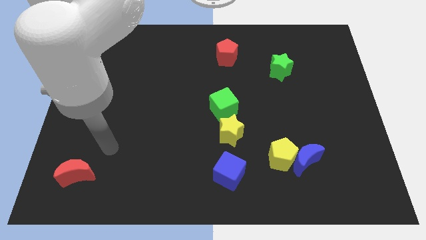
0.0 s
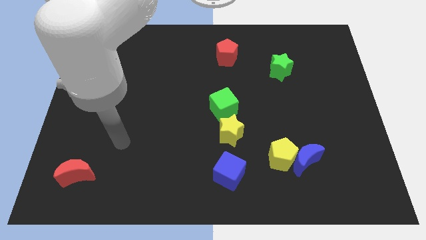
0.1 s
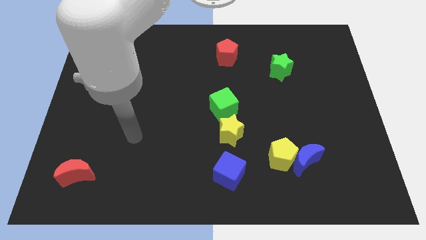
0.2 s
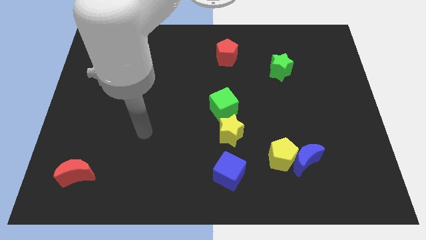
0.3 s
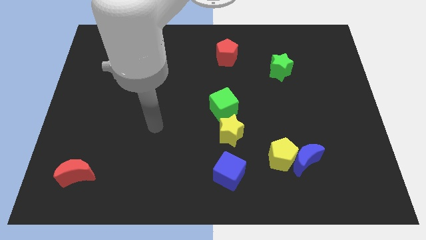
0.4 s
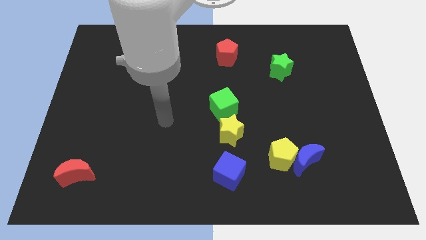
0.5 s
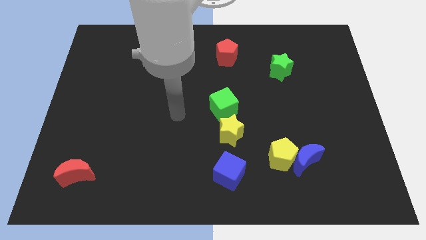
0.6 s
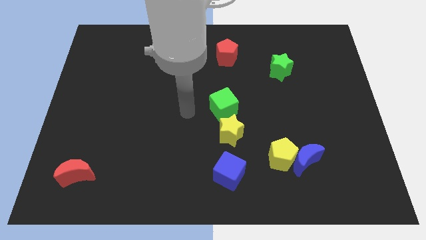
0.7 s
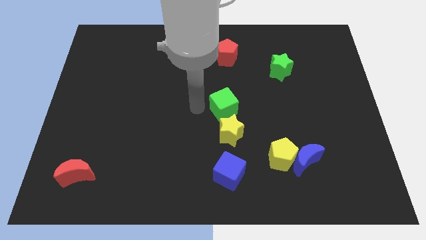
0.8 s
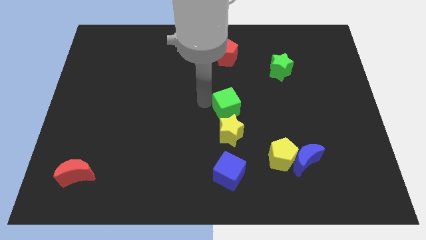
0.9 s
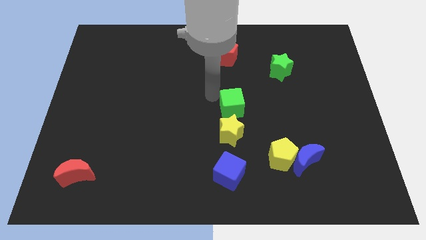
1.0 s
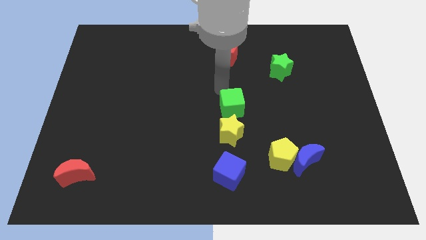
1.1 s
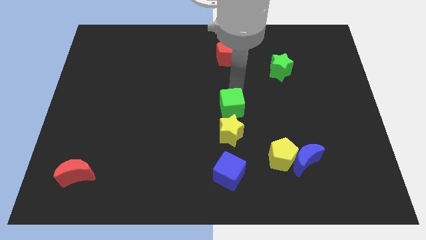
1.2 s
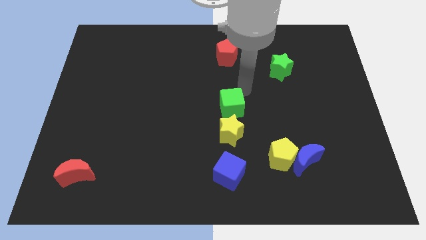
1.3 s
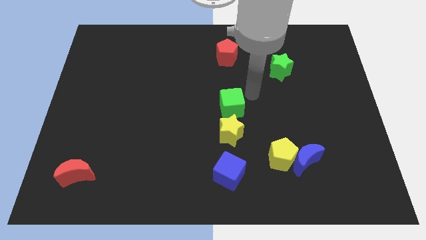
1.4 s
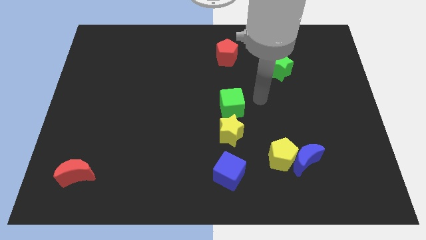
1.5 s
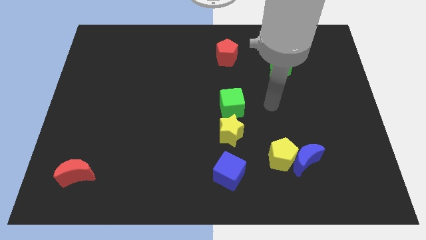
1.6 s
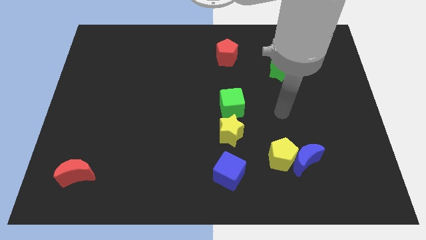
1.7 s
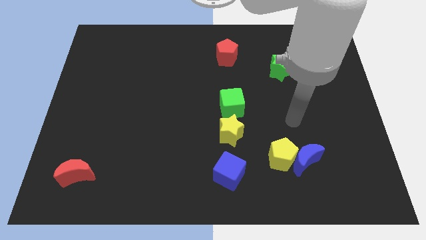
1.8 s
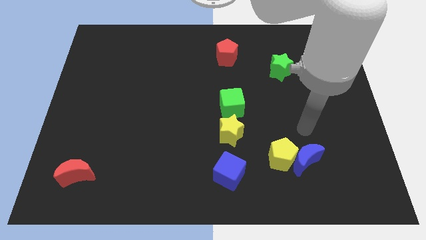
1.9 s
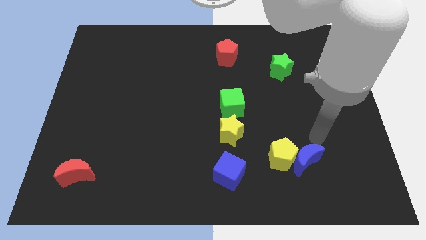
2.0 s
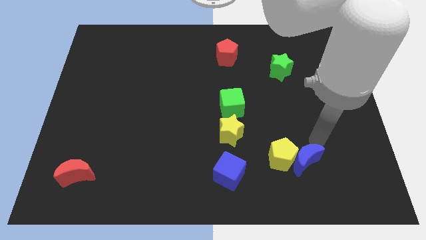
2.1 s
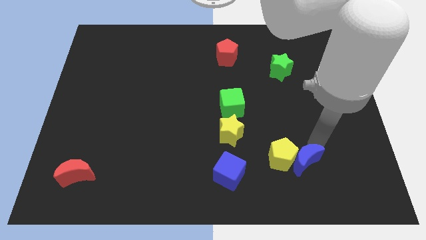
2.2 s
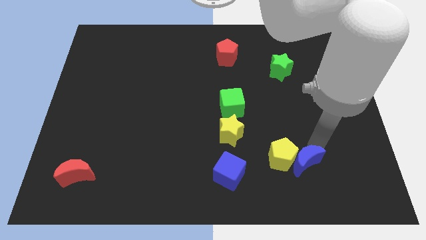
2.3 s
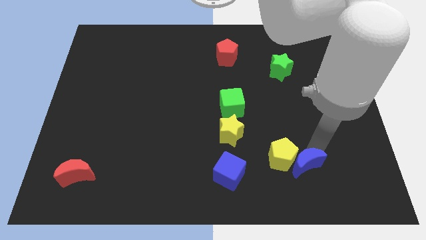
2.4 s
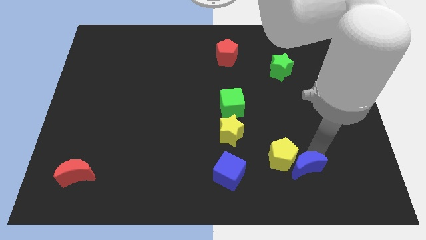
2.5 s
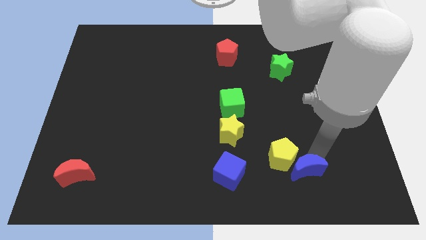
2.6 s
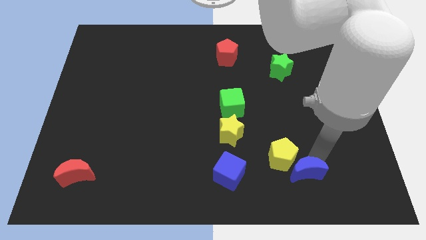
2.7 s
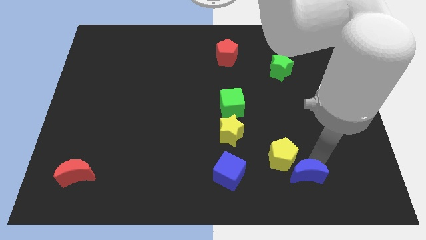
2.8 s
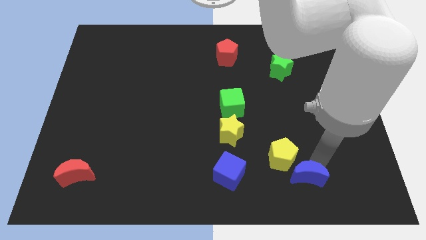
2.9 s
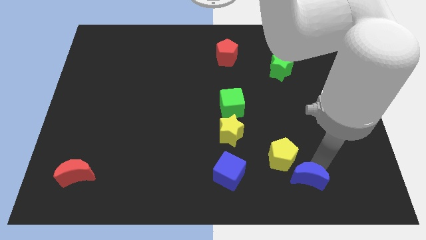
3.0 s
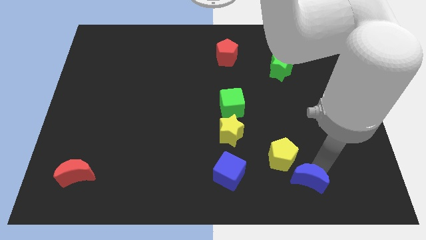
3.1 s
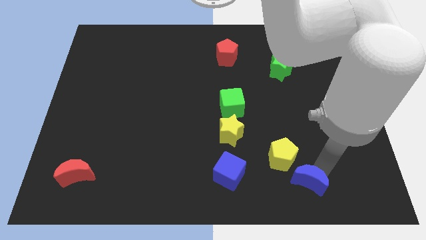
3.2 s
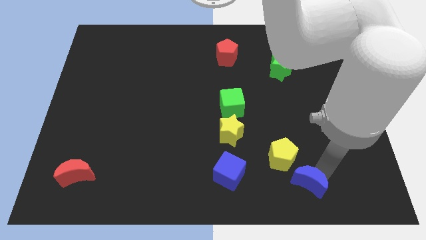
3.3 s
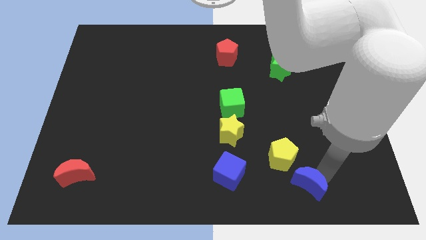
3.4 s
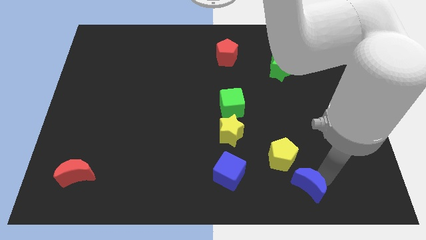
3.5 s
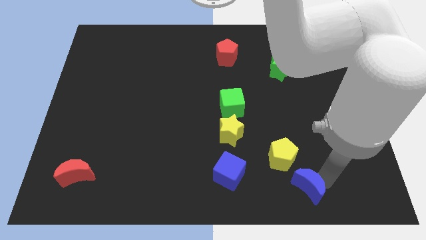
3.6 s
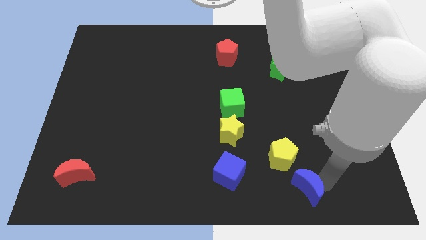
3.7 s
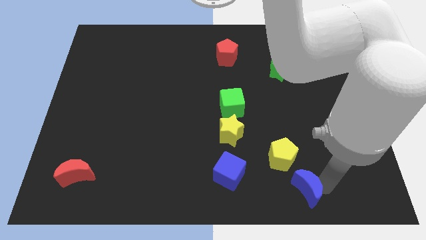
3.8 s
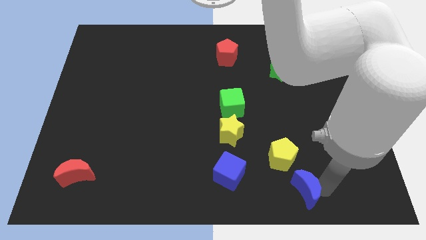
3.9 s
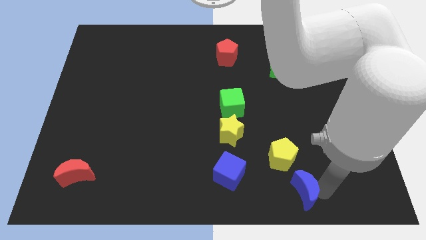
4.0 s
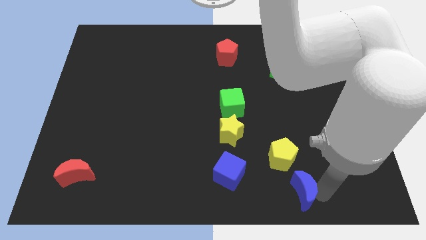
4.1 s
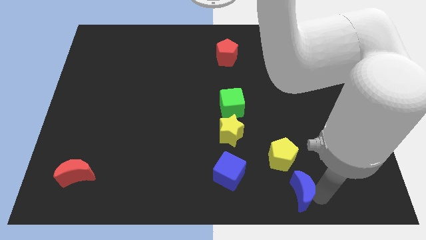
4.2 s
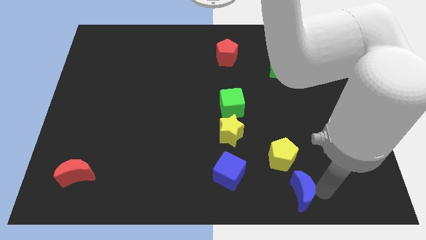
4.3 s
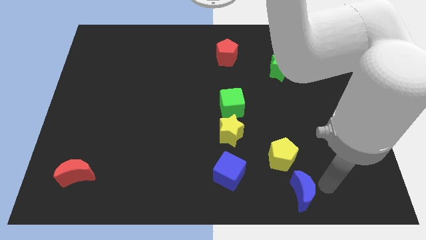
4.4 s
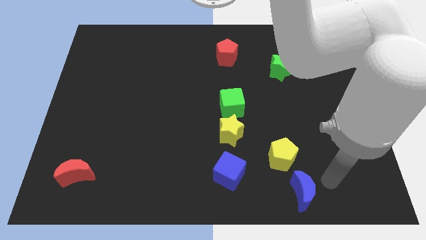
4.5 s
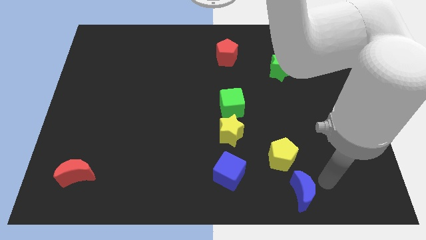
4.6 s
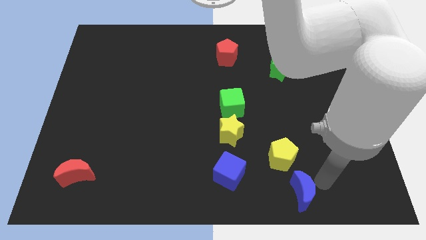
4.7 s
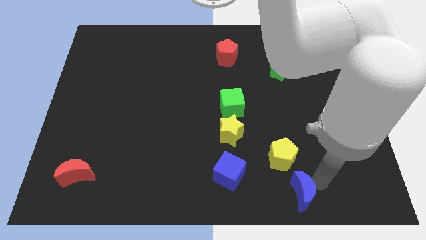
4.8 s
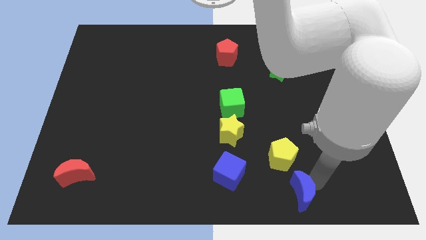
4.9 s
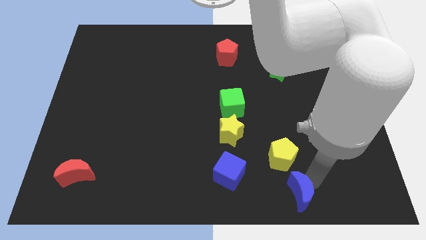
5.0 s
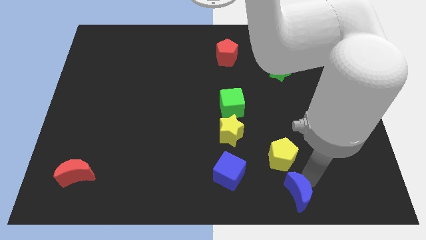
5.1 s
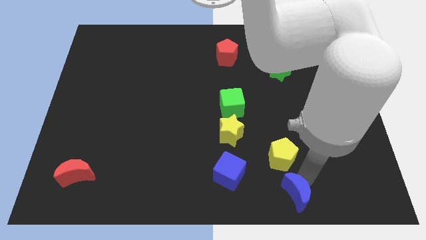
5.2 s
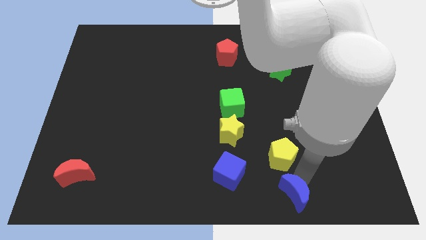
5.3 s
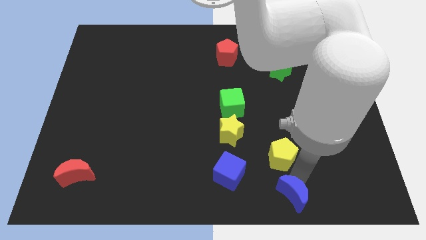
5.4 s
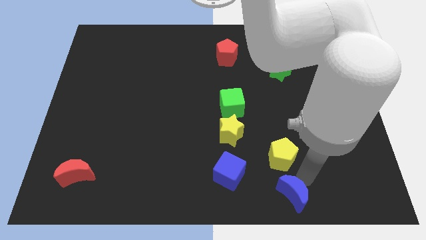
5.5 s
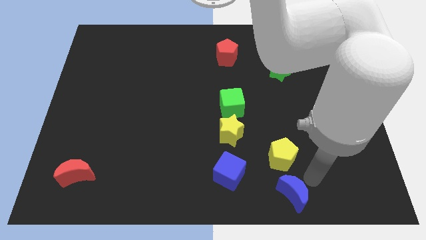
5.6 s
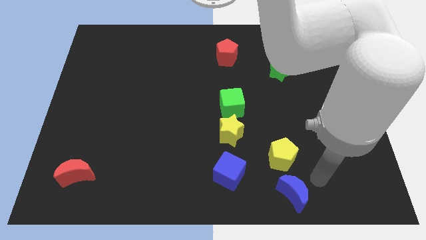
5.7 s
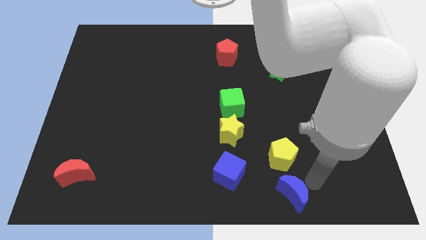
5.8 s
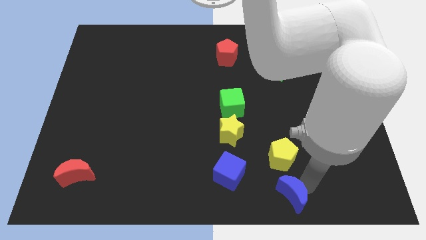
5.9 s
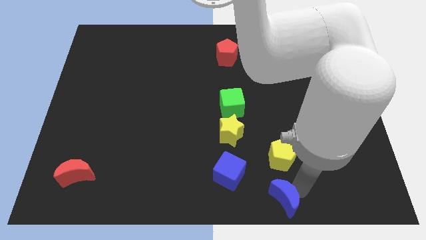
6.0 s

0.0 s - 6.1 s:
move the blue moon to the bottom

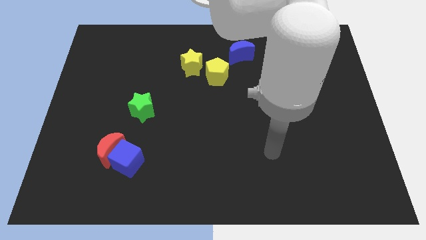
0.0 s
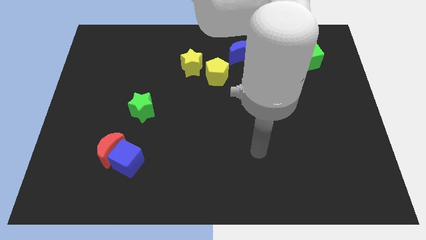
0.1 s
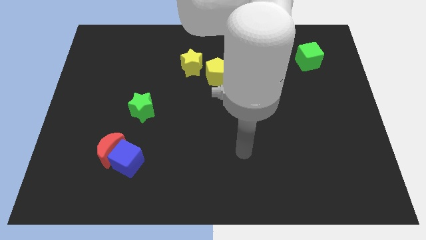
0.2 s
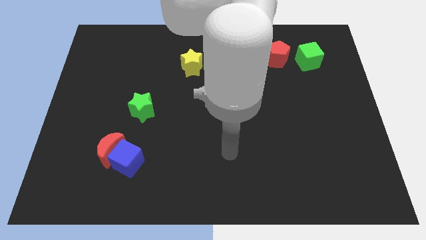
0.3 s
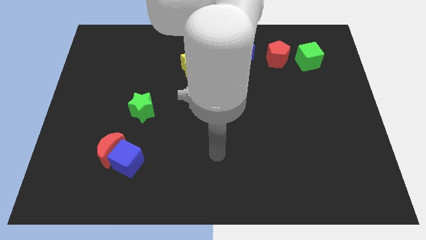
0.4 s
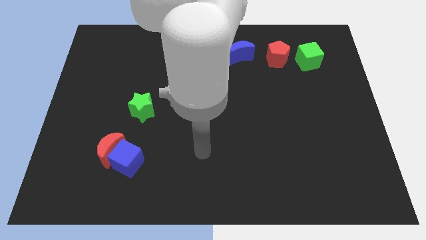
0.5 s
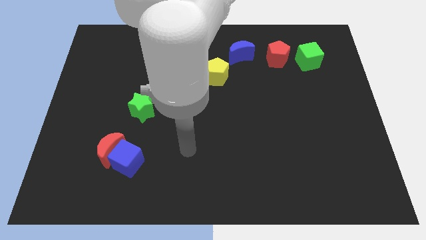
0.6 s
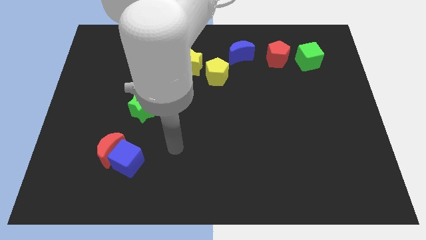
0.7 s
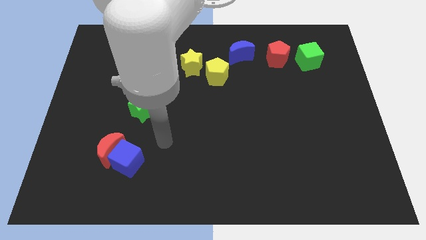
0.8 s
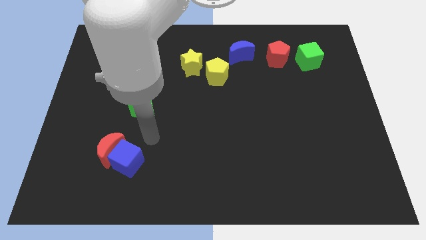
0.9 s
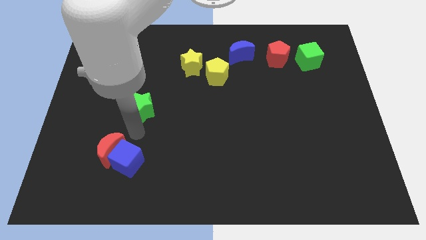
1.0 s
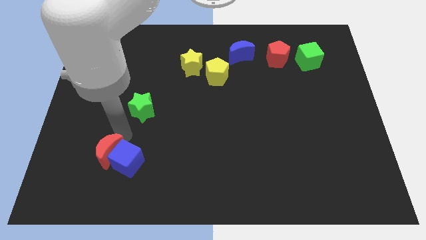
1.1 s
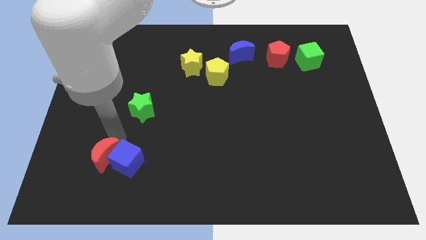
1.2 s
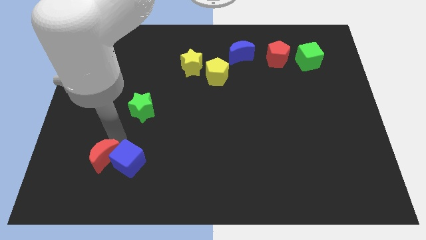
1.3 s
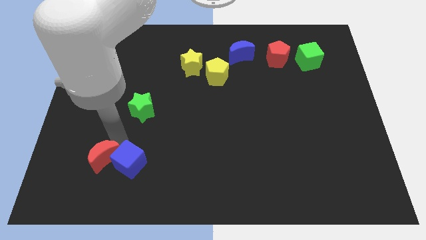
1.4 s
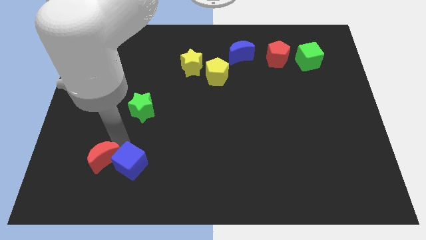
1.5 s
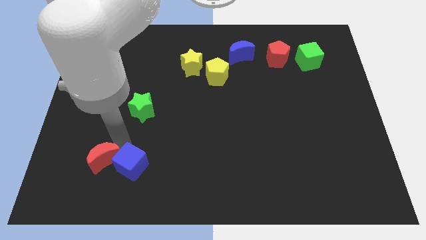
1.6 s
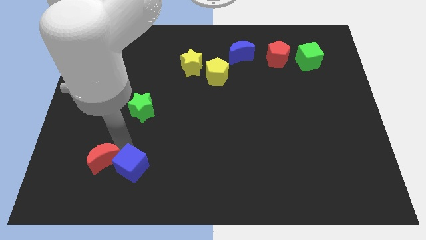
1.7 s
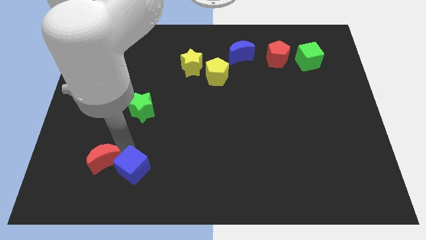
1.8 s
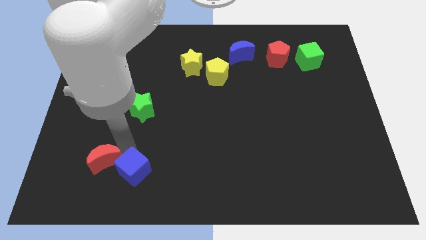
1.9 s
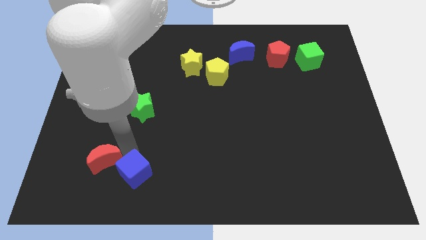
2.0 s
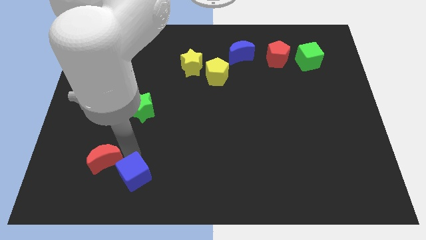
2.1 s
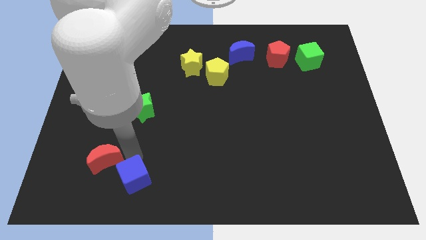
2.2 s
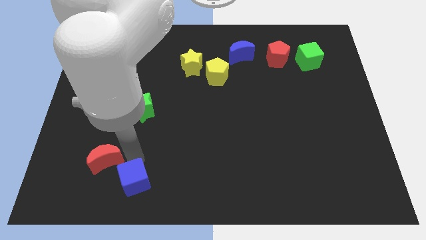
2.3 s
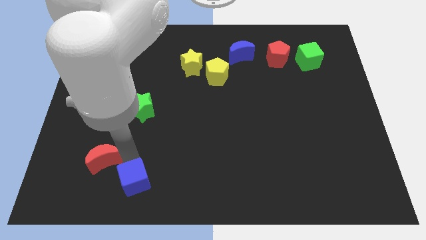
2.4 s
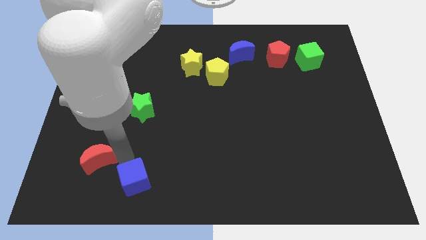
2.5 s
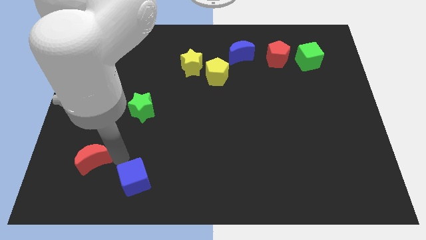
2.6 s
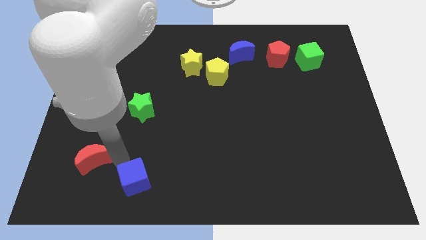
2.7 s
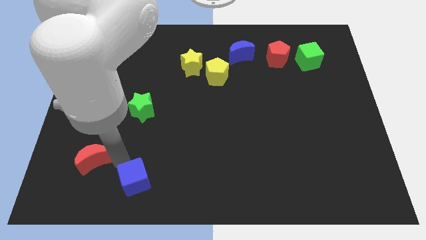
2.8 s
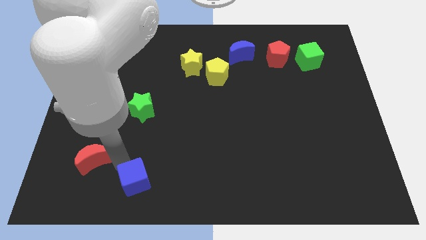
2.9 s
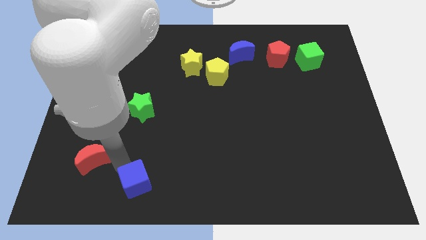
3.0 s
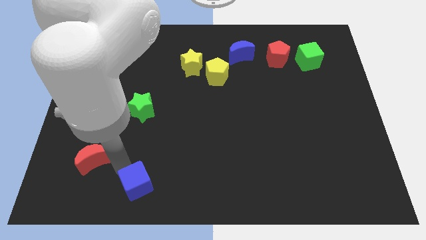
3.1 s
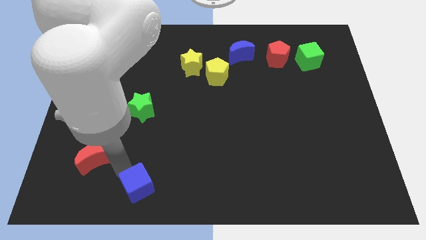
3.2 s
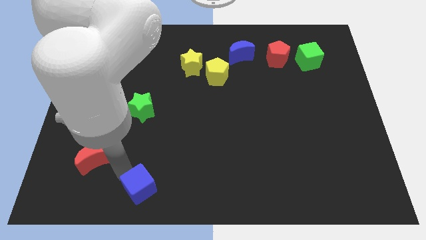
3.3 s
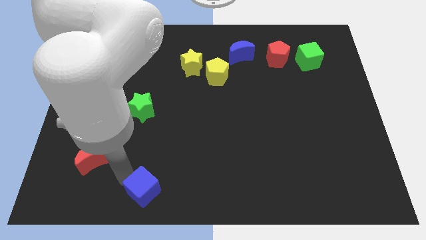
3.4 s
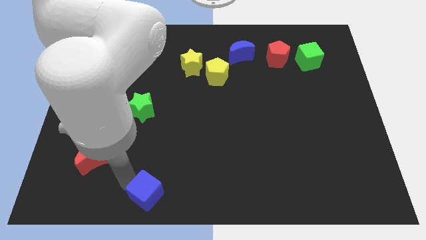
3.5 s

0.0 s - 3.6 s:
push the blue cube to the bottom side
